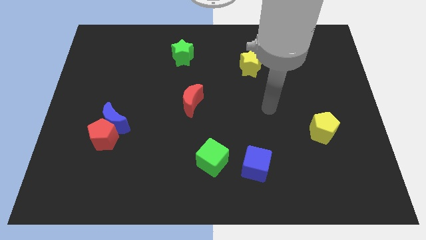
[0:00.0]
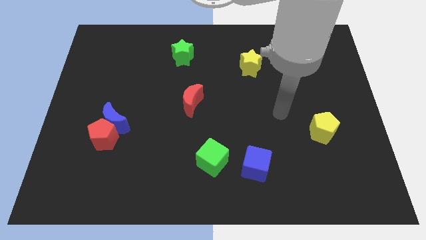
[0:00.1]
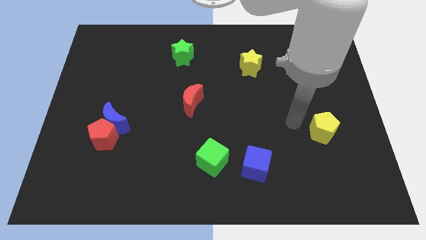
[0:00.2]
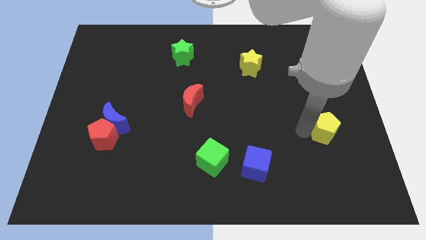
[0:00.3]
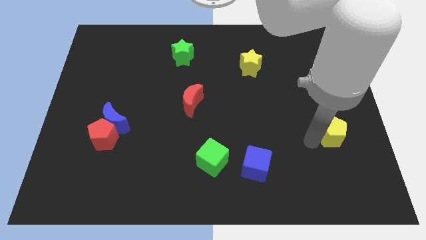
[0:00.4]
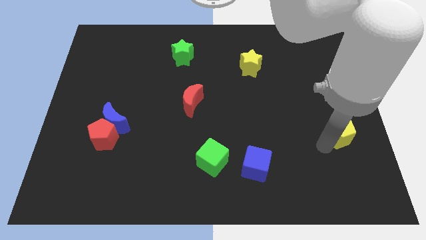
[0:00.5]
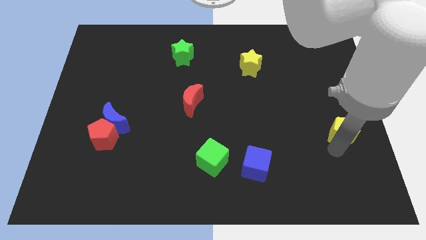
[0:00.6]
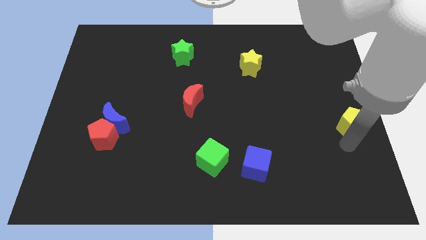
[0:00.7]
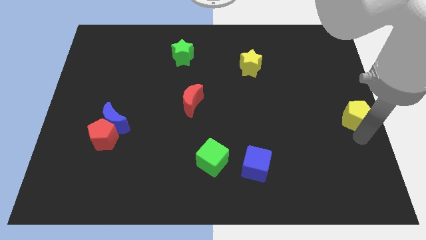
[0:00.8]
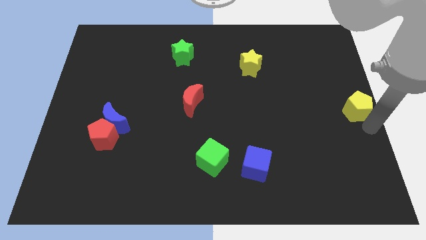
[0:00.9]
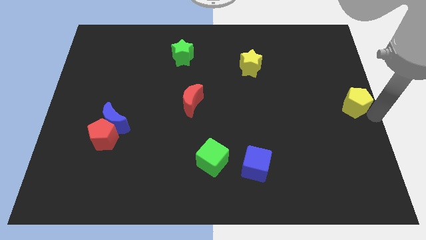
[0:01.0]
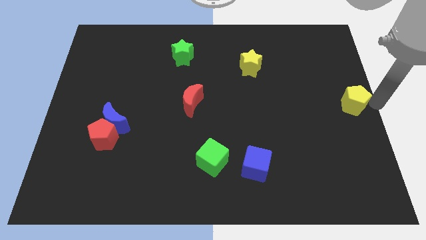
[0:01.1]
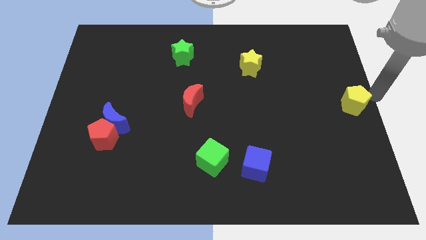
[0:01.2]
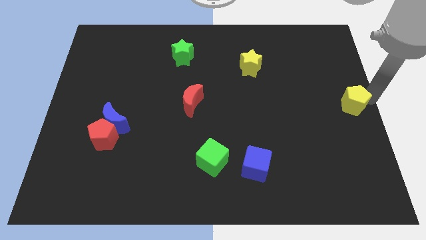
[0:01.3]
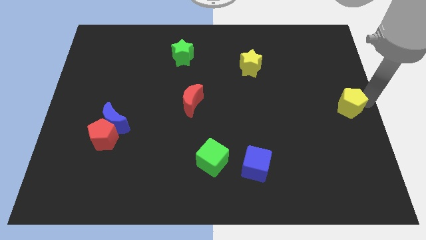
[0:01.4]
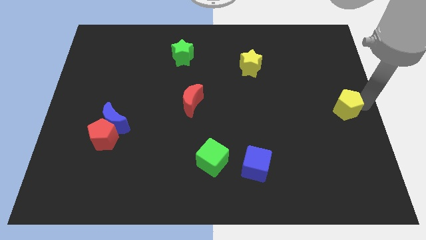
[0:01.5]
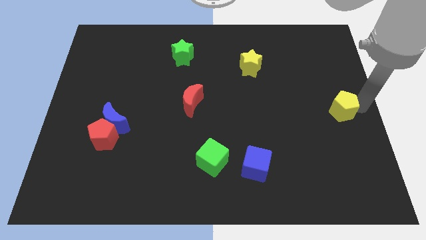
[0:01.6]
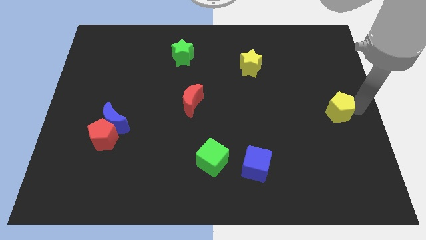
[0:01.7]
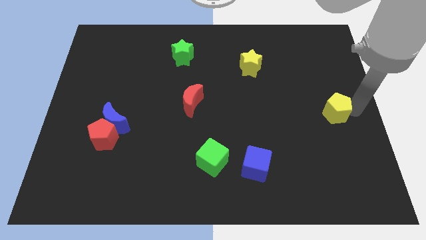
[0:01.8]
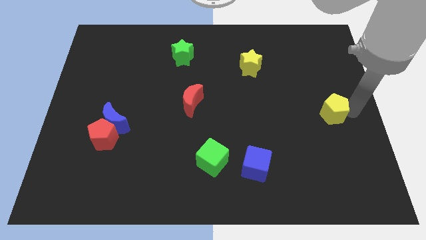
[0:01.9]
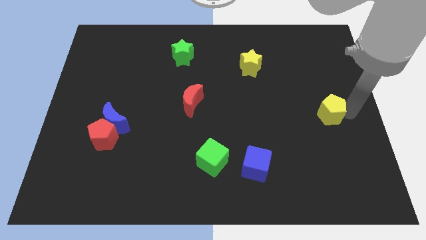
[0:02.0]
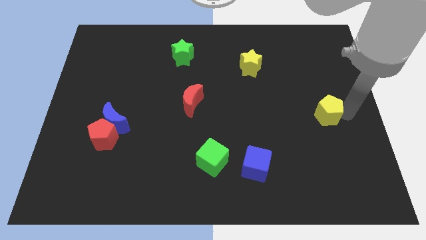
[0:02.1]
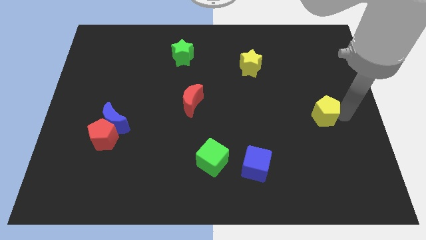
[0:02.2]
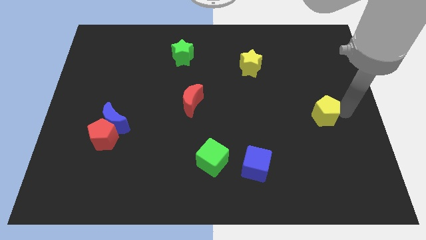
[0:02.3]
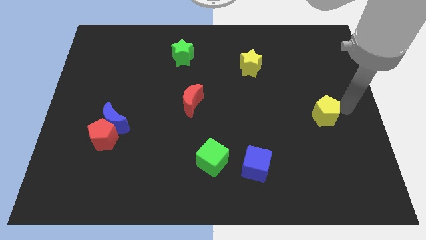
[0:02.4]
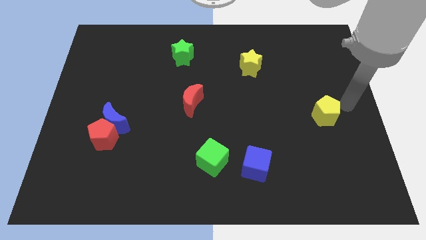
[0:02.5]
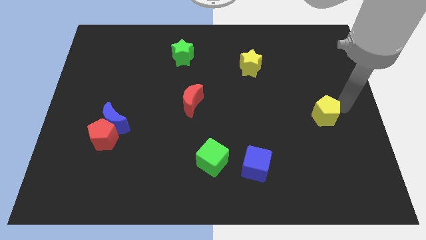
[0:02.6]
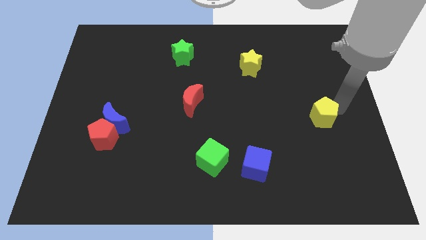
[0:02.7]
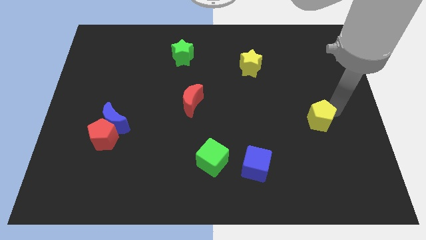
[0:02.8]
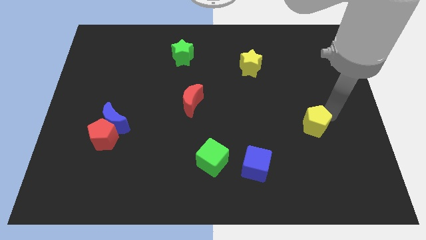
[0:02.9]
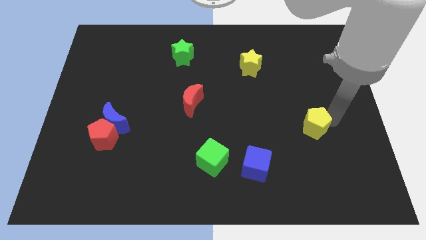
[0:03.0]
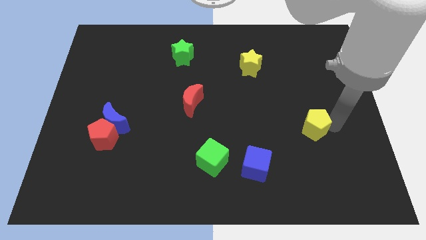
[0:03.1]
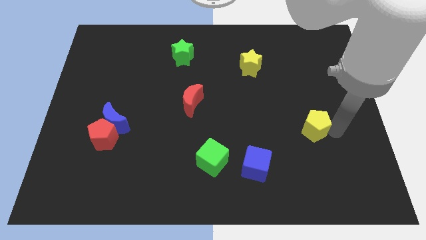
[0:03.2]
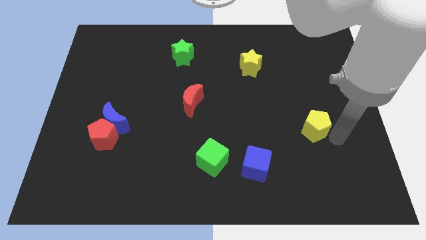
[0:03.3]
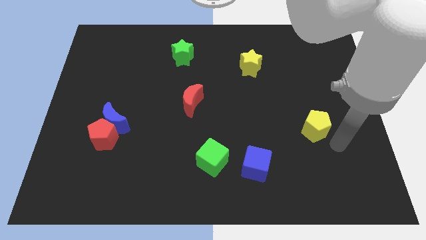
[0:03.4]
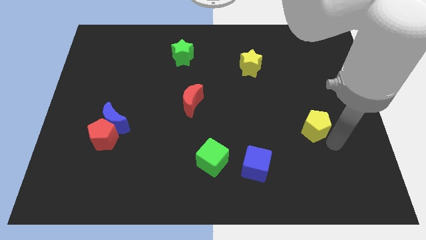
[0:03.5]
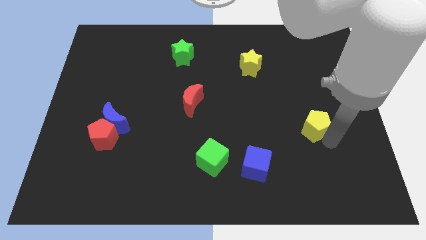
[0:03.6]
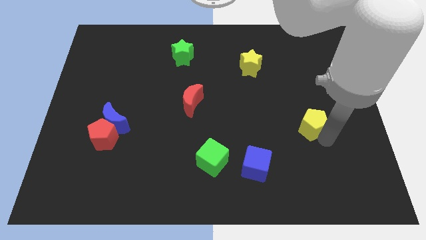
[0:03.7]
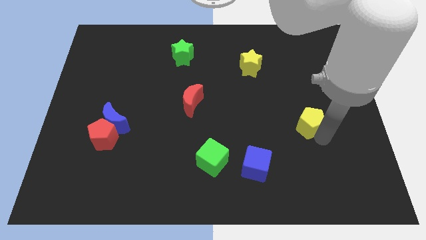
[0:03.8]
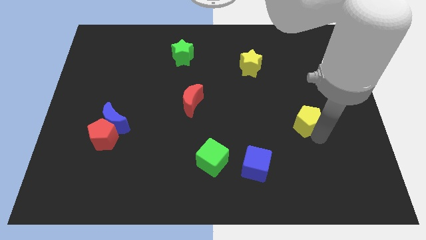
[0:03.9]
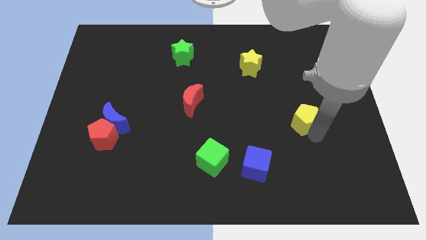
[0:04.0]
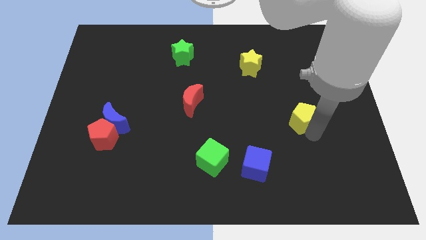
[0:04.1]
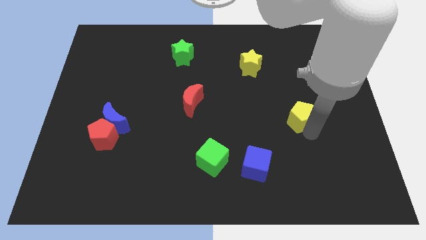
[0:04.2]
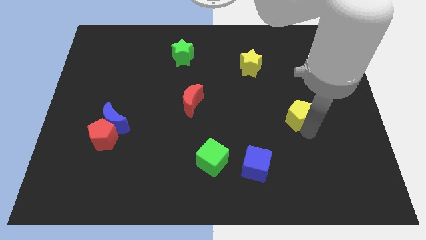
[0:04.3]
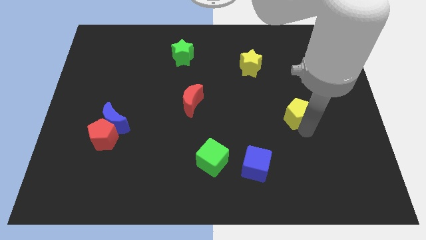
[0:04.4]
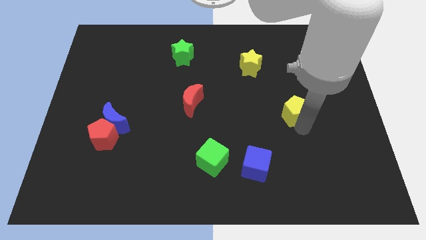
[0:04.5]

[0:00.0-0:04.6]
move the yellow pentagon up and then to the left a bit

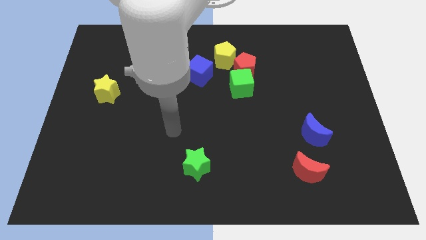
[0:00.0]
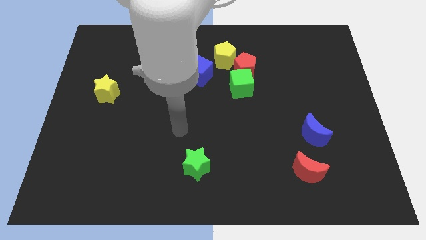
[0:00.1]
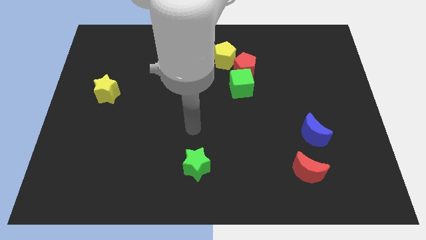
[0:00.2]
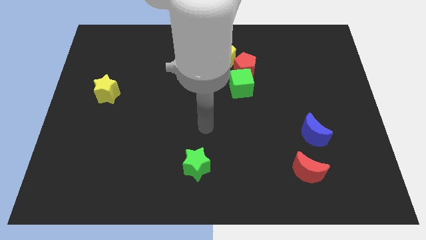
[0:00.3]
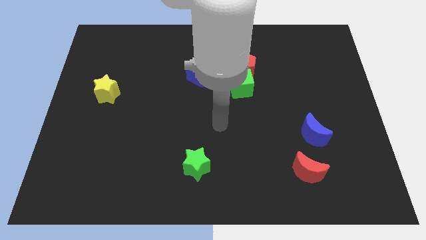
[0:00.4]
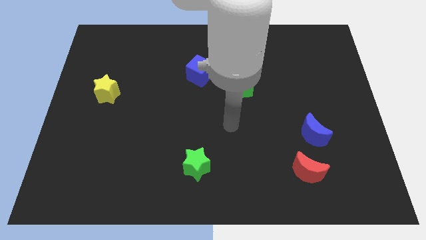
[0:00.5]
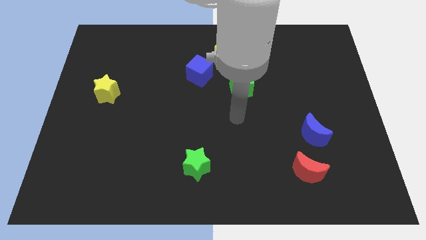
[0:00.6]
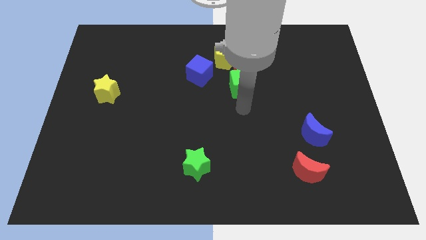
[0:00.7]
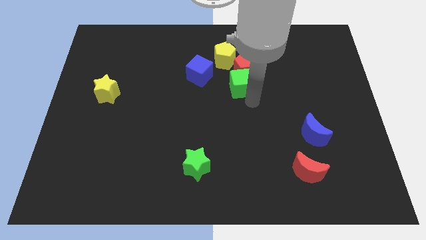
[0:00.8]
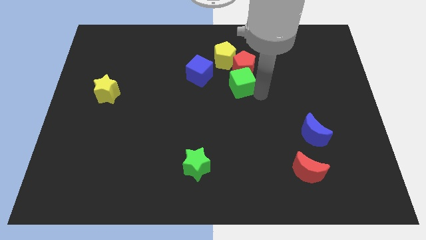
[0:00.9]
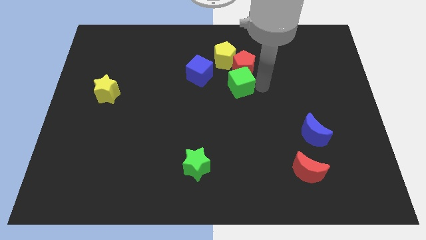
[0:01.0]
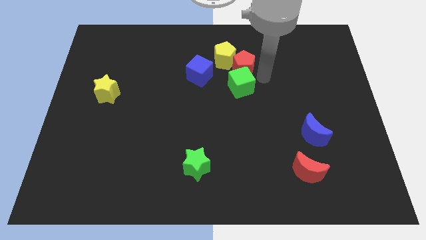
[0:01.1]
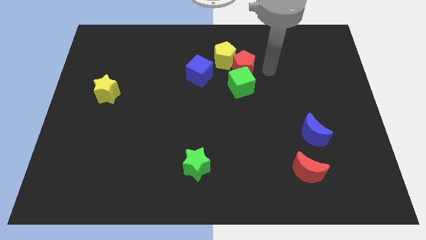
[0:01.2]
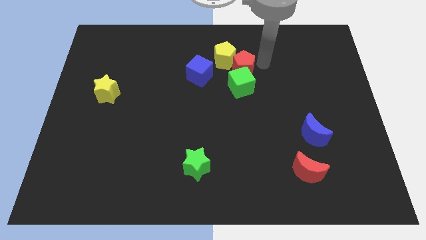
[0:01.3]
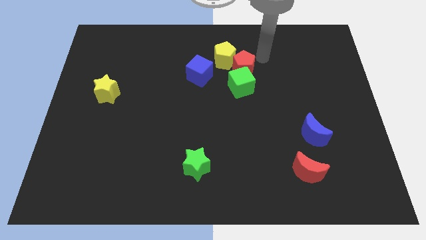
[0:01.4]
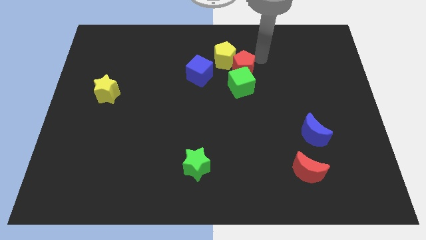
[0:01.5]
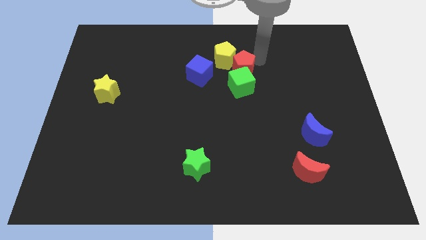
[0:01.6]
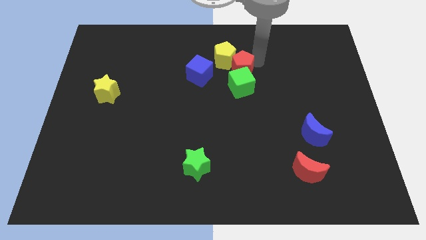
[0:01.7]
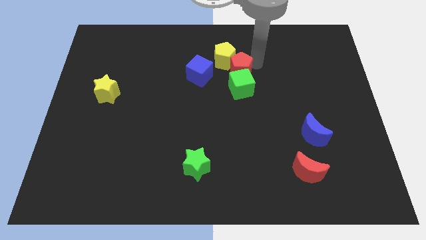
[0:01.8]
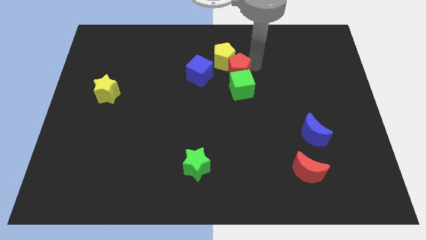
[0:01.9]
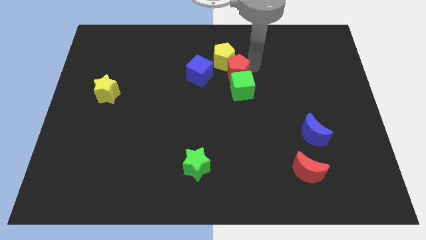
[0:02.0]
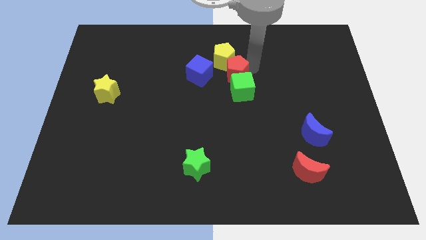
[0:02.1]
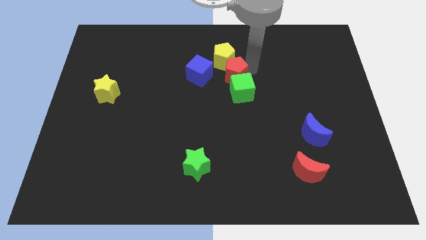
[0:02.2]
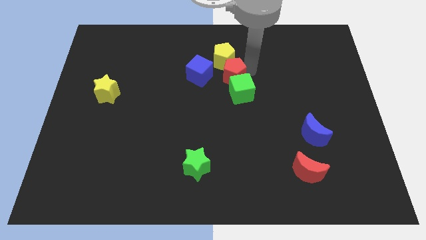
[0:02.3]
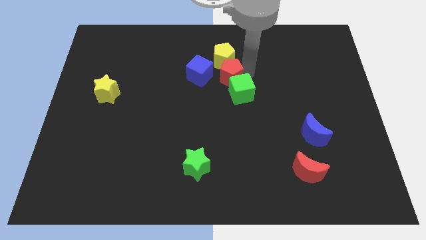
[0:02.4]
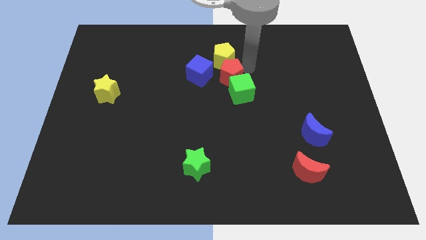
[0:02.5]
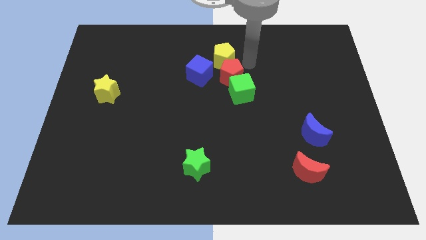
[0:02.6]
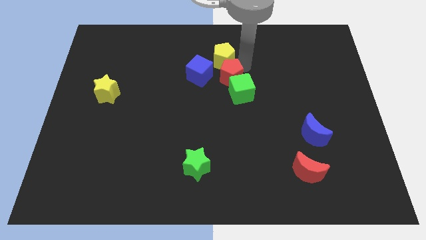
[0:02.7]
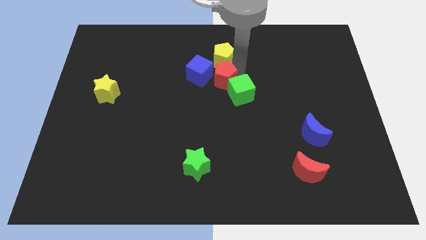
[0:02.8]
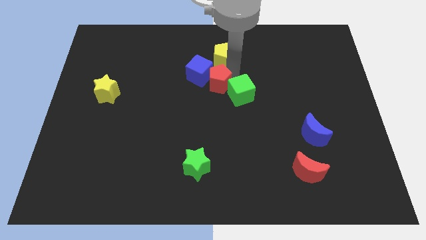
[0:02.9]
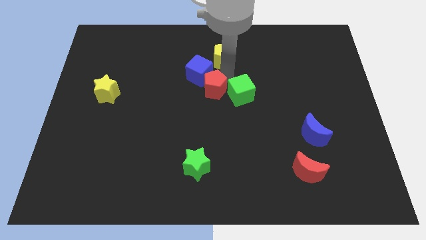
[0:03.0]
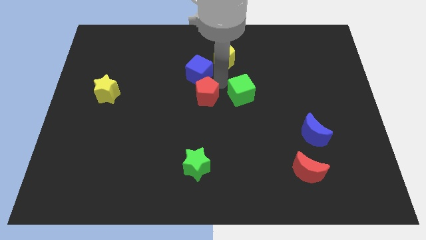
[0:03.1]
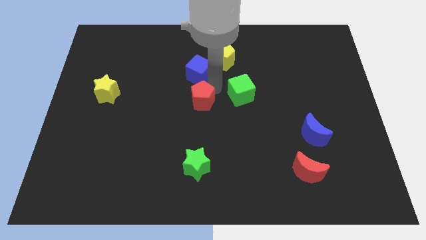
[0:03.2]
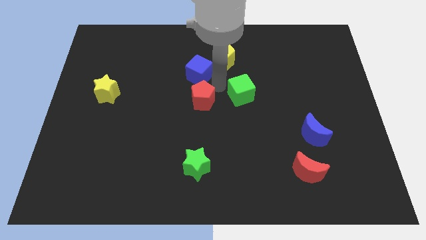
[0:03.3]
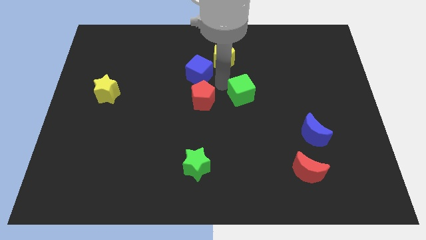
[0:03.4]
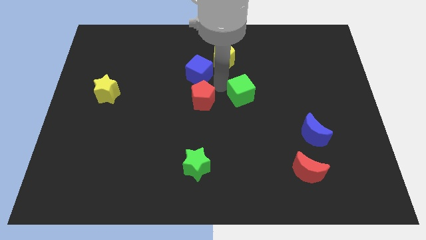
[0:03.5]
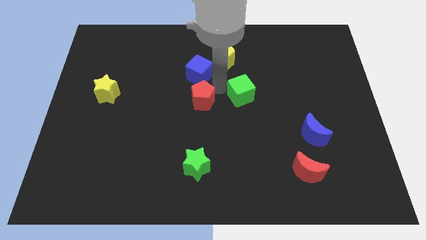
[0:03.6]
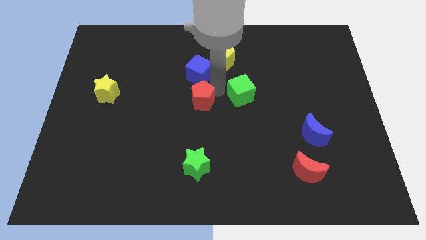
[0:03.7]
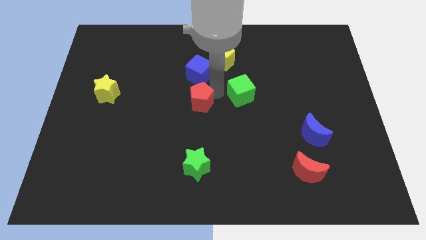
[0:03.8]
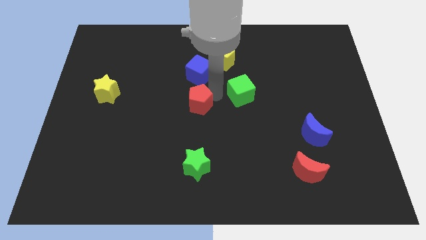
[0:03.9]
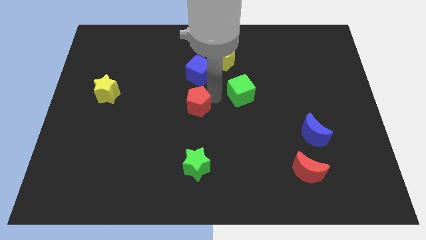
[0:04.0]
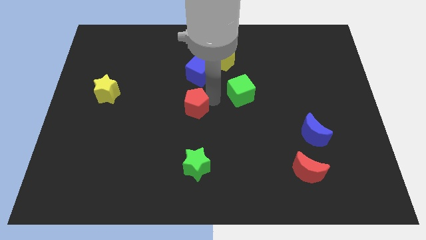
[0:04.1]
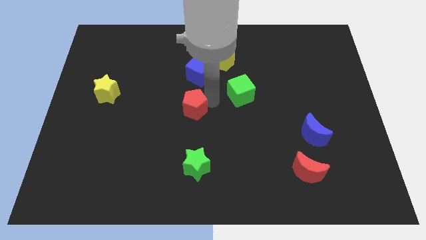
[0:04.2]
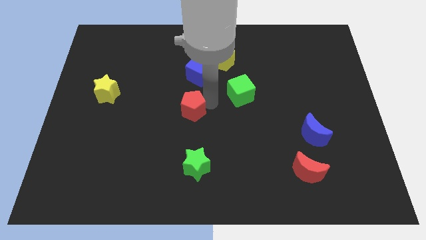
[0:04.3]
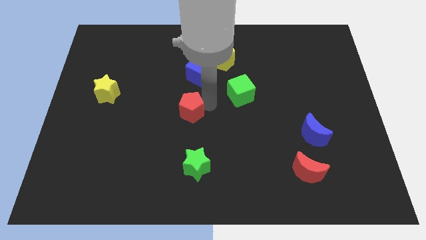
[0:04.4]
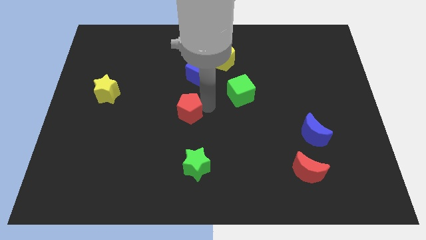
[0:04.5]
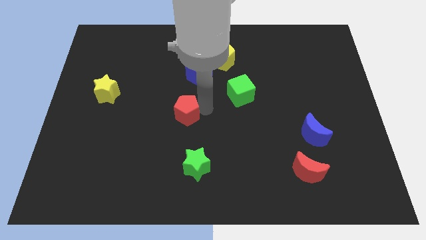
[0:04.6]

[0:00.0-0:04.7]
move the red pentagon diagonally down and left
